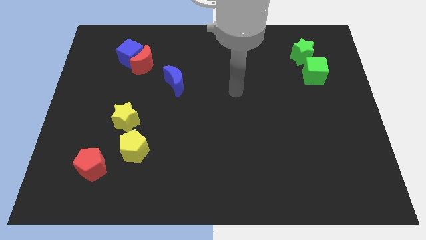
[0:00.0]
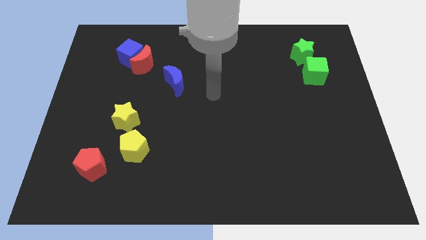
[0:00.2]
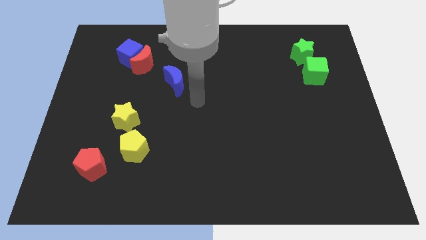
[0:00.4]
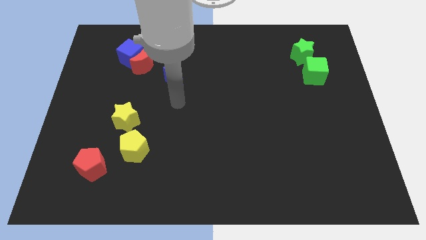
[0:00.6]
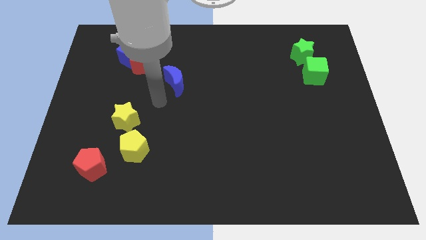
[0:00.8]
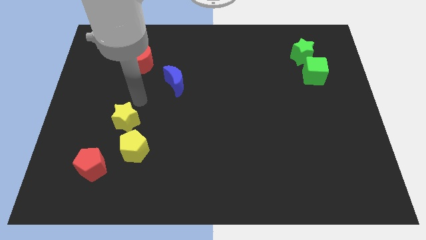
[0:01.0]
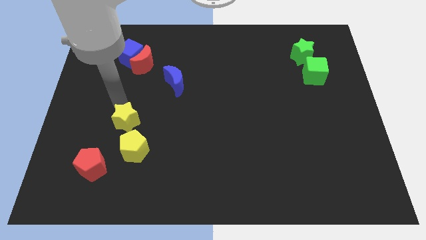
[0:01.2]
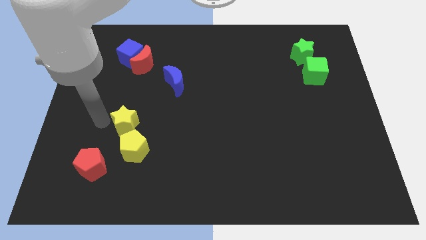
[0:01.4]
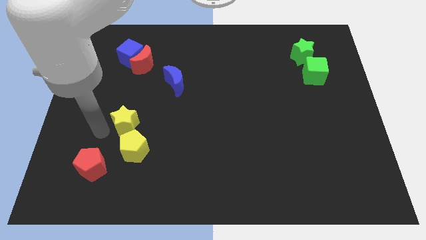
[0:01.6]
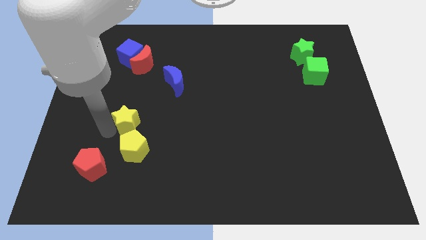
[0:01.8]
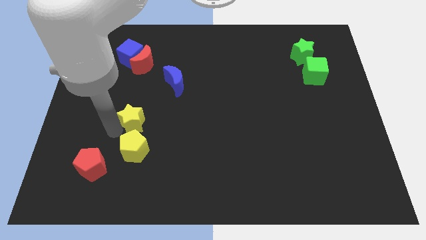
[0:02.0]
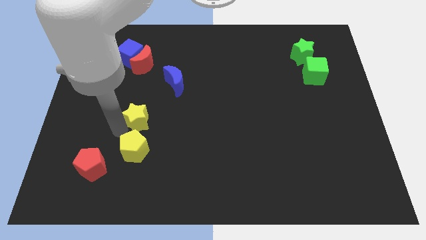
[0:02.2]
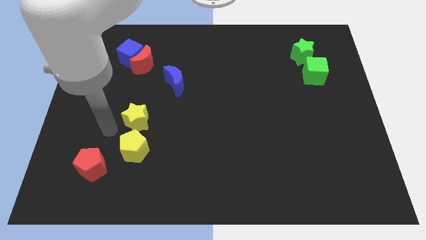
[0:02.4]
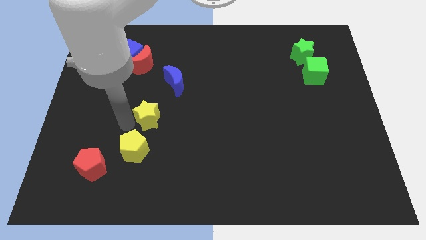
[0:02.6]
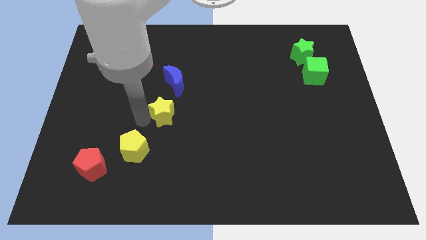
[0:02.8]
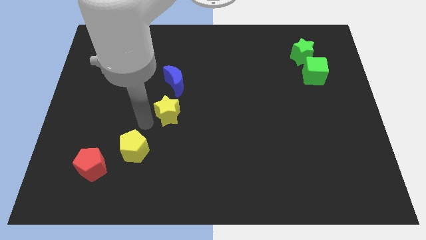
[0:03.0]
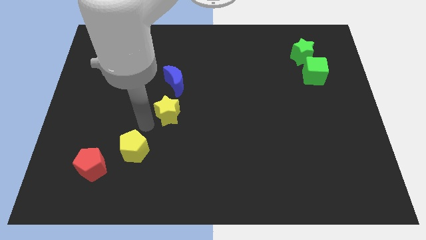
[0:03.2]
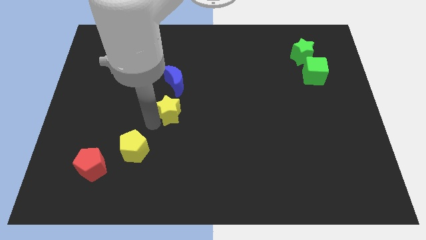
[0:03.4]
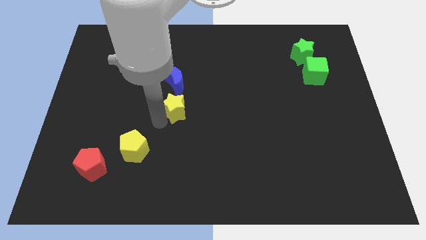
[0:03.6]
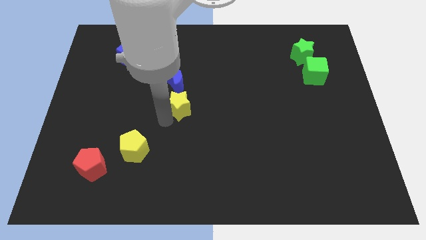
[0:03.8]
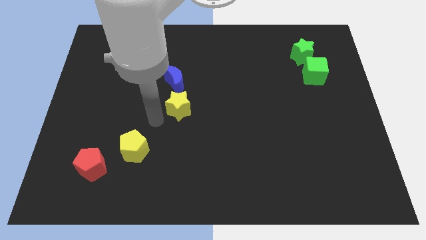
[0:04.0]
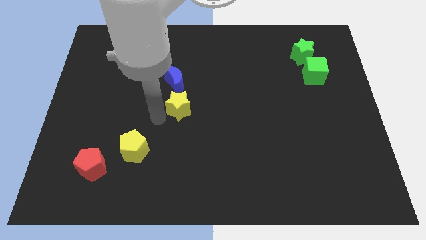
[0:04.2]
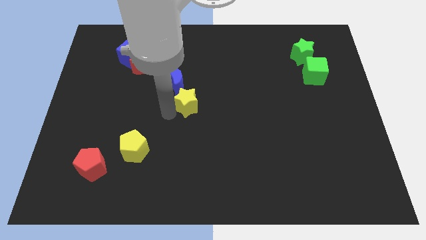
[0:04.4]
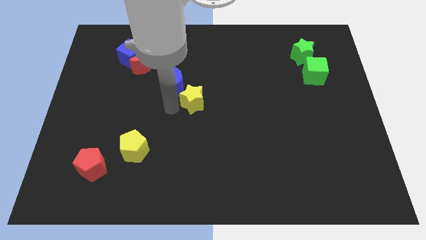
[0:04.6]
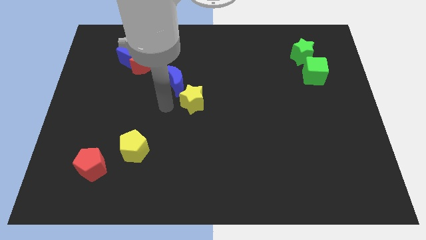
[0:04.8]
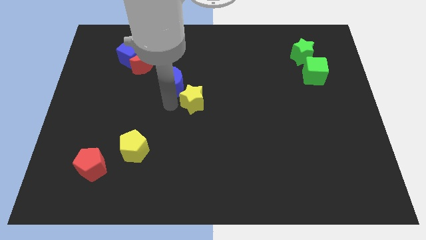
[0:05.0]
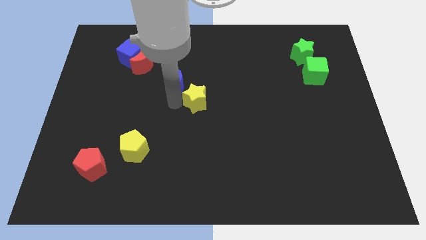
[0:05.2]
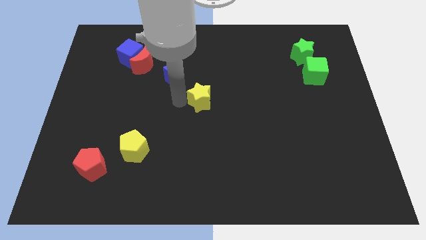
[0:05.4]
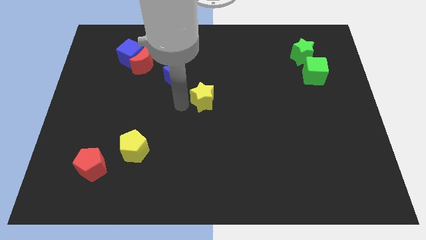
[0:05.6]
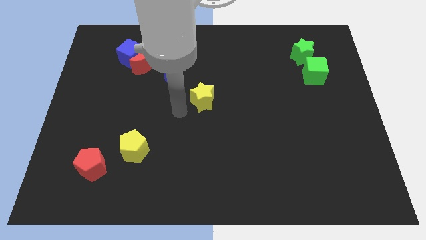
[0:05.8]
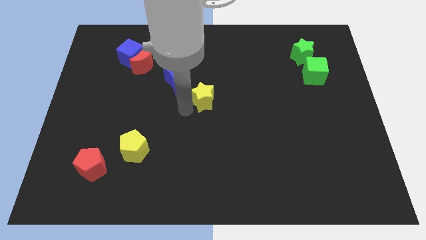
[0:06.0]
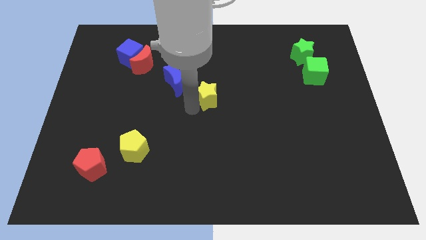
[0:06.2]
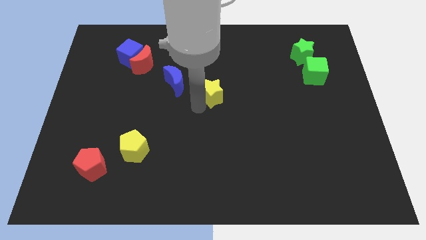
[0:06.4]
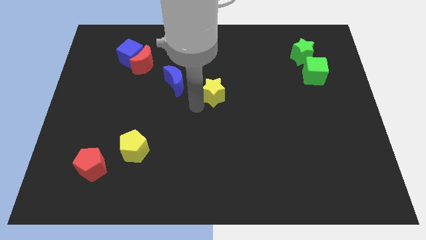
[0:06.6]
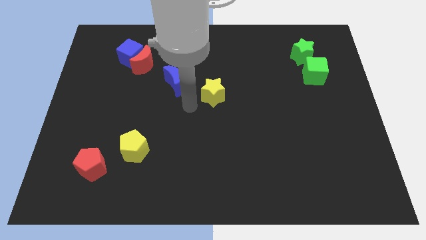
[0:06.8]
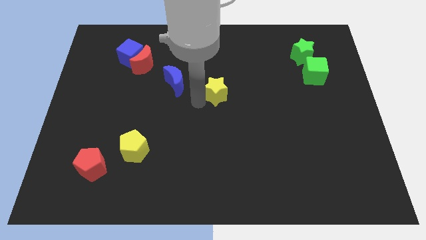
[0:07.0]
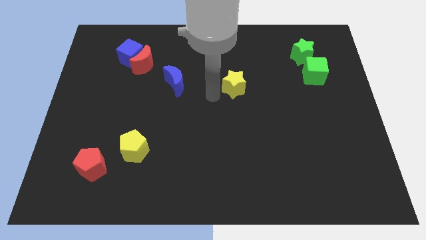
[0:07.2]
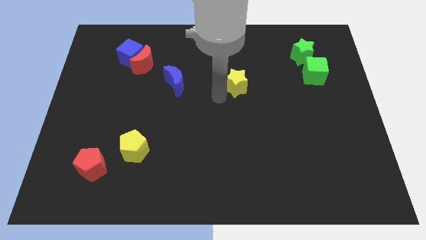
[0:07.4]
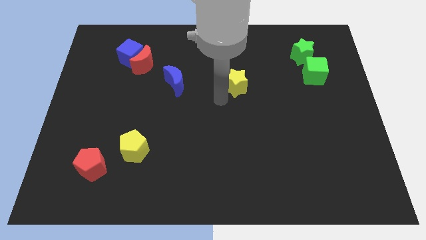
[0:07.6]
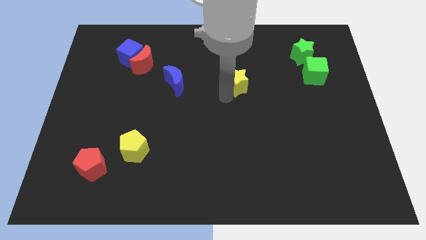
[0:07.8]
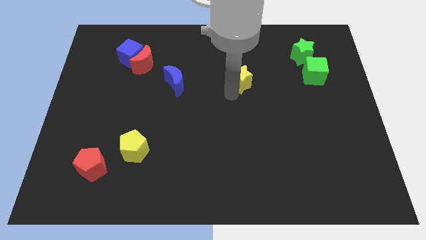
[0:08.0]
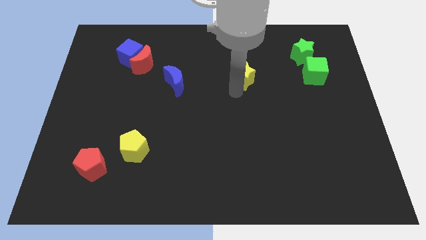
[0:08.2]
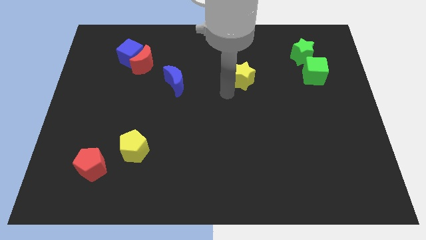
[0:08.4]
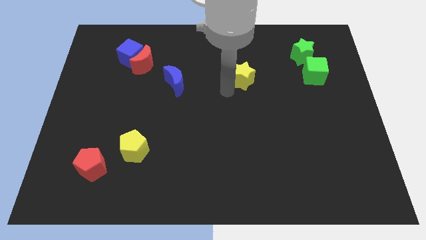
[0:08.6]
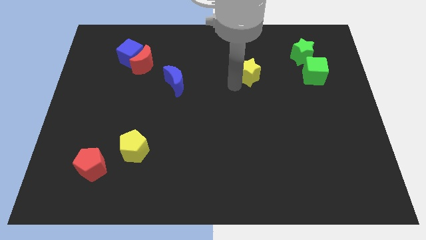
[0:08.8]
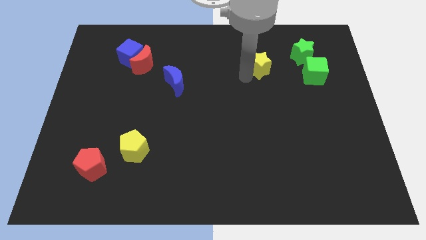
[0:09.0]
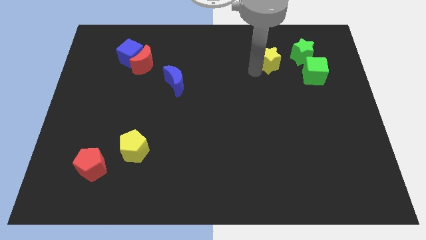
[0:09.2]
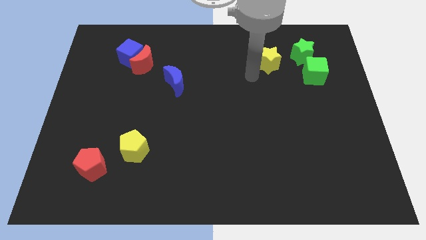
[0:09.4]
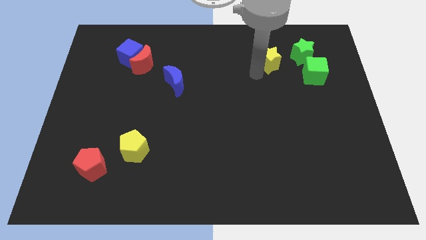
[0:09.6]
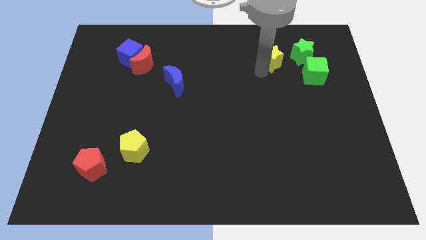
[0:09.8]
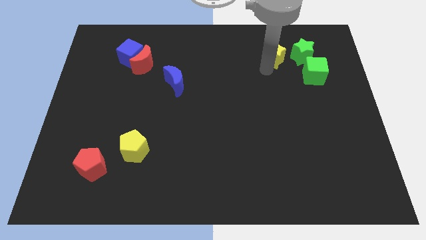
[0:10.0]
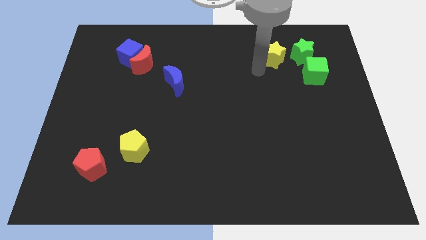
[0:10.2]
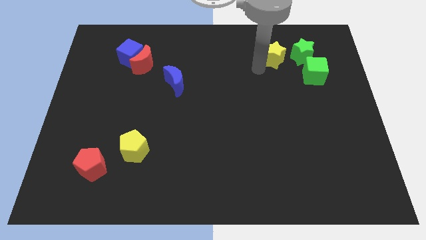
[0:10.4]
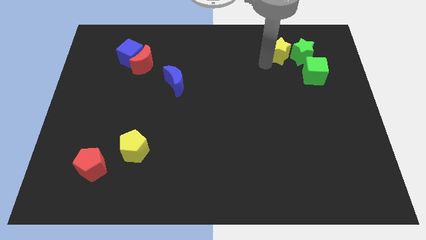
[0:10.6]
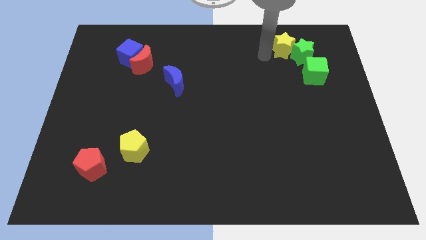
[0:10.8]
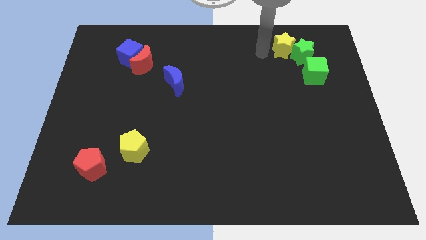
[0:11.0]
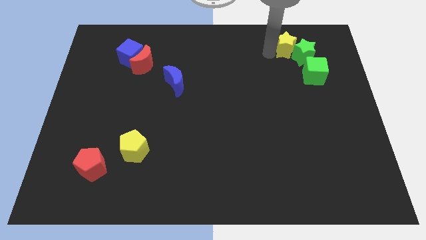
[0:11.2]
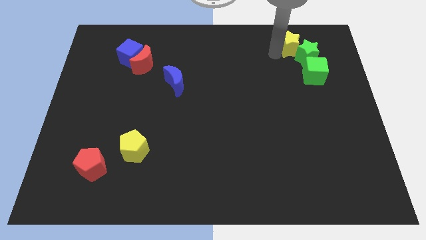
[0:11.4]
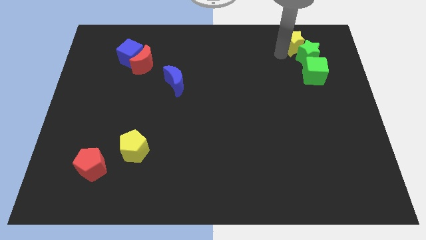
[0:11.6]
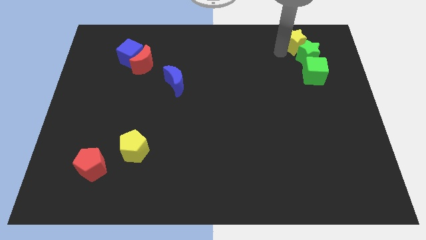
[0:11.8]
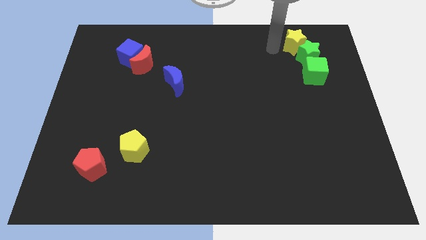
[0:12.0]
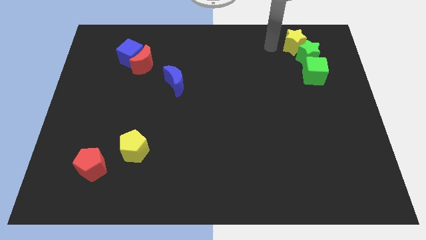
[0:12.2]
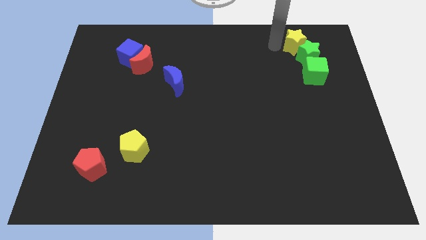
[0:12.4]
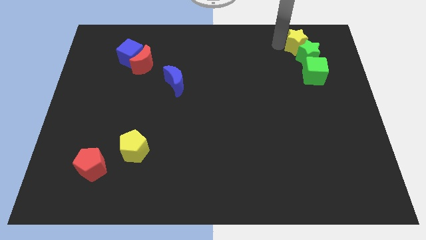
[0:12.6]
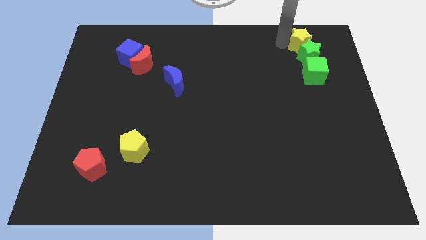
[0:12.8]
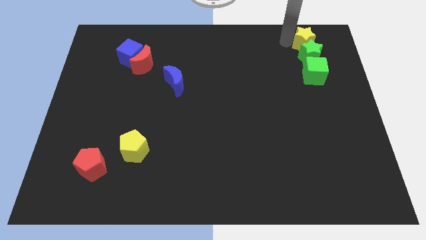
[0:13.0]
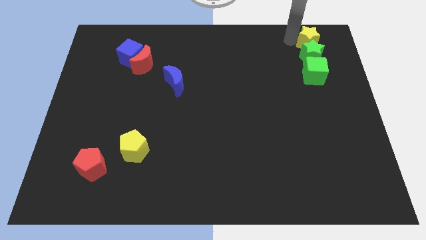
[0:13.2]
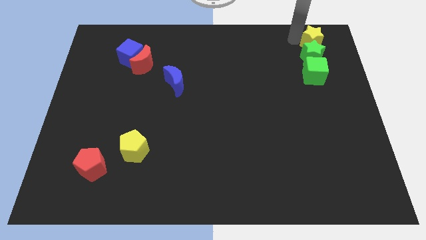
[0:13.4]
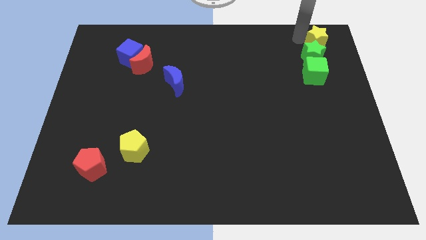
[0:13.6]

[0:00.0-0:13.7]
slide the yellow star to the top right corner
